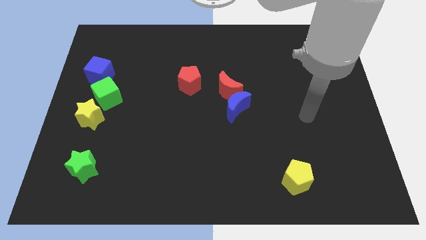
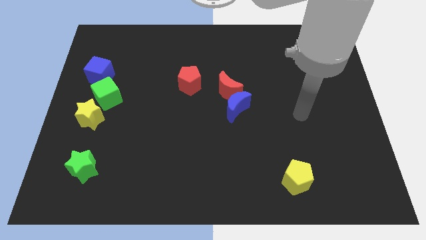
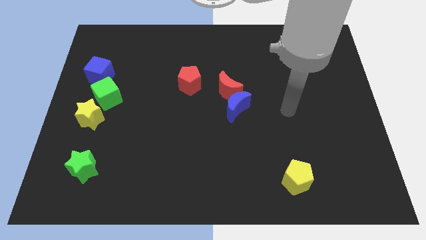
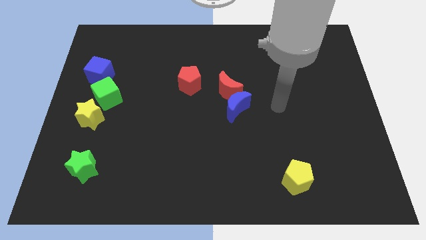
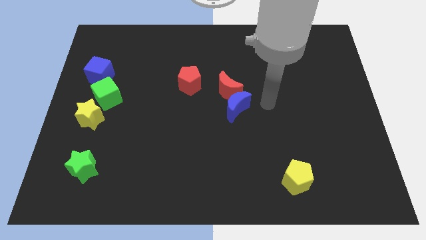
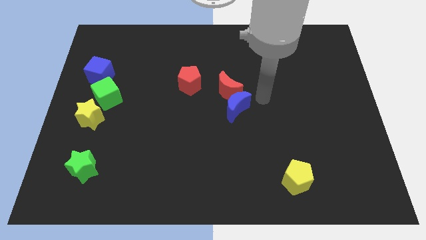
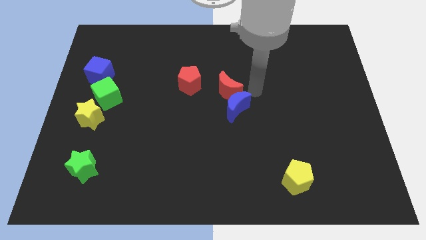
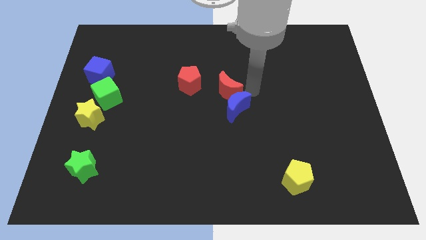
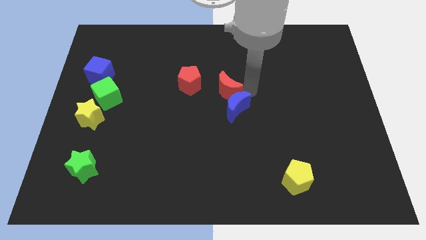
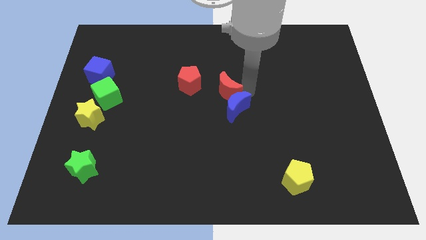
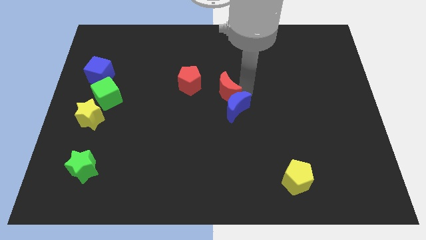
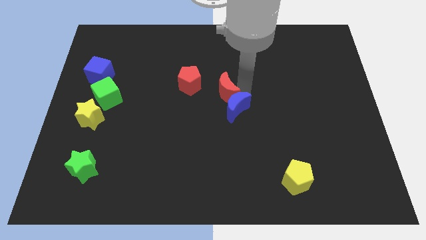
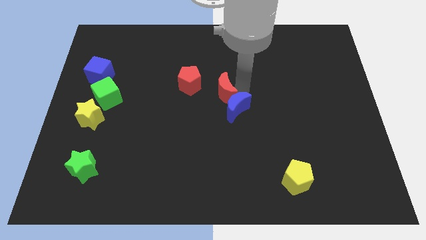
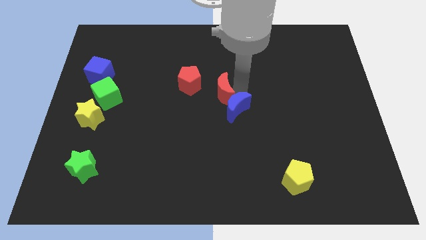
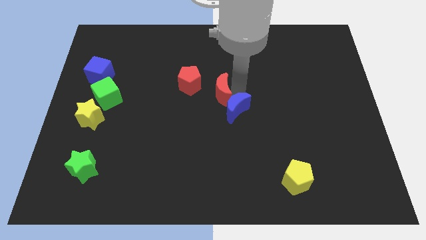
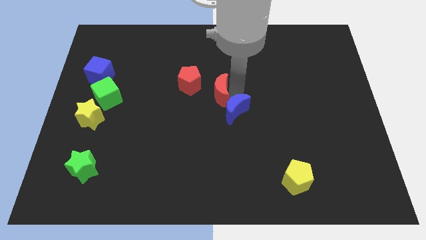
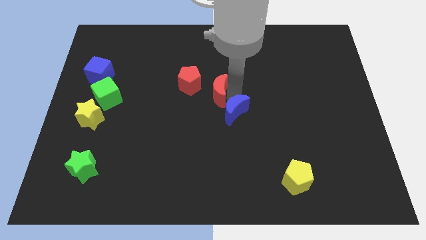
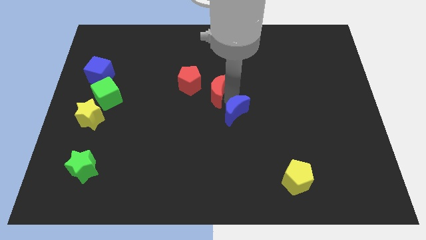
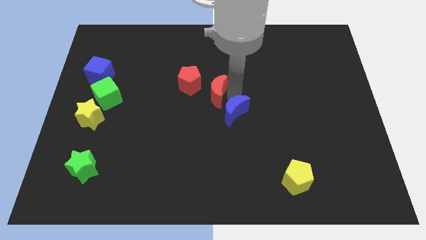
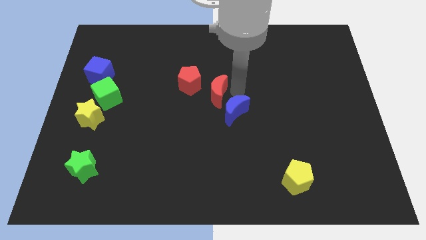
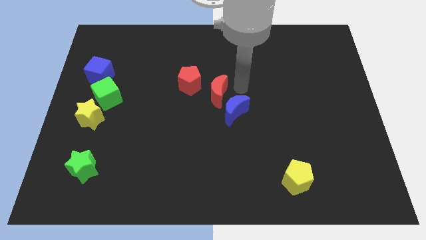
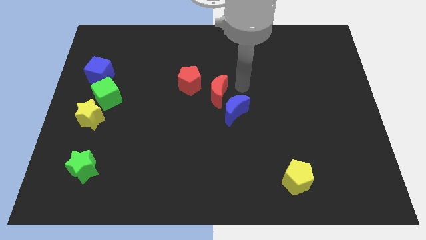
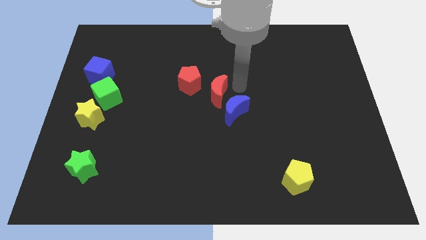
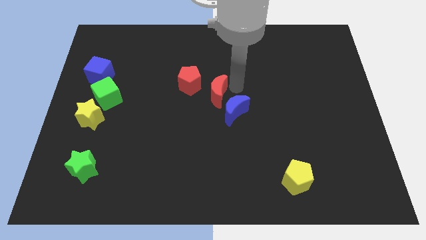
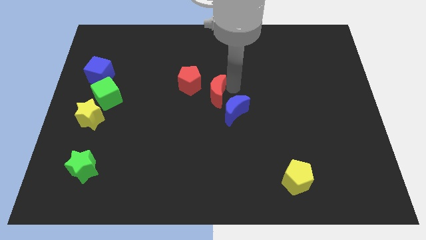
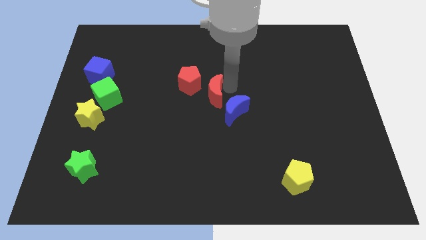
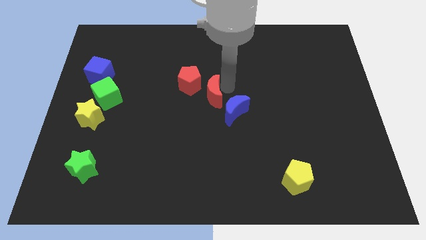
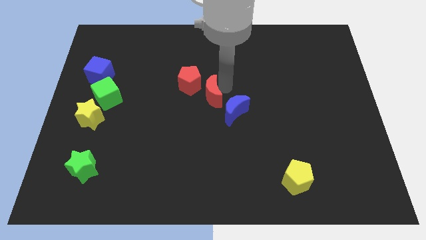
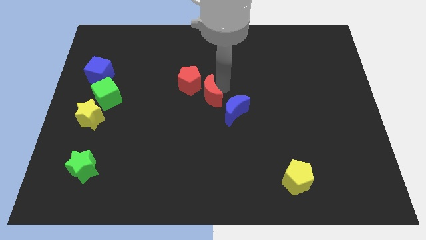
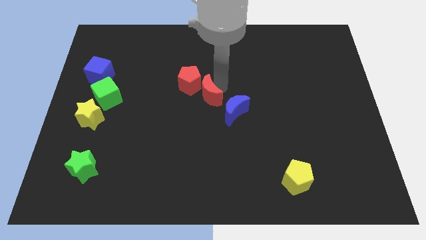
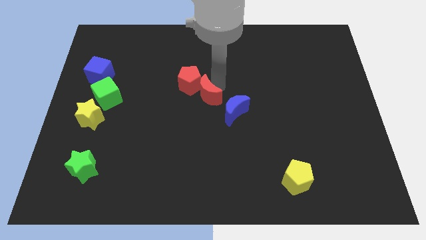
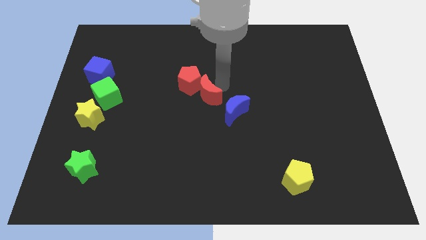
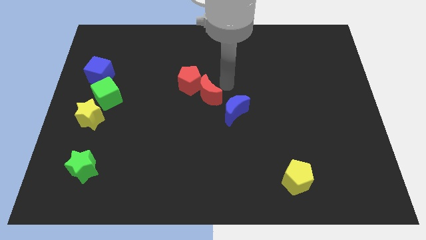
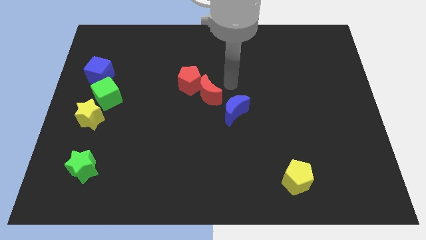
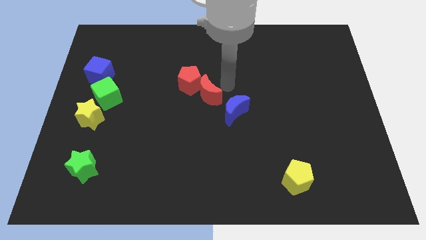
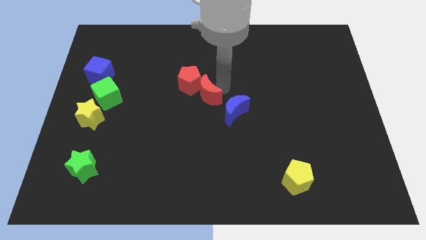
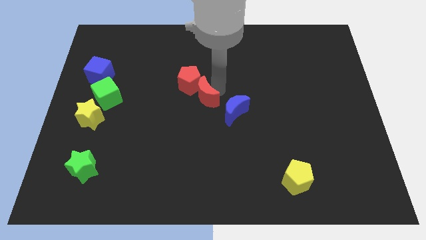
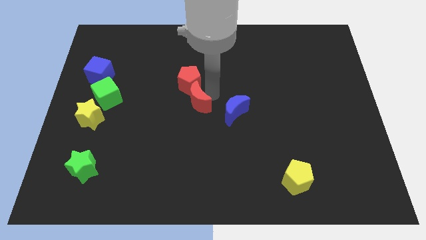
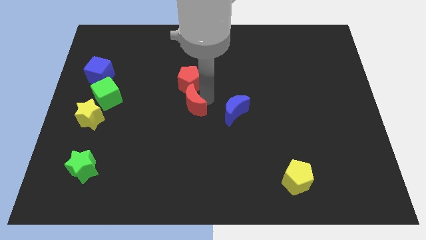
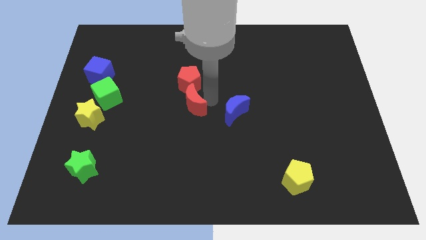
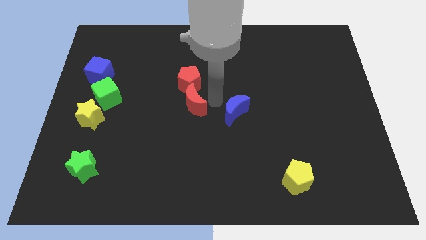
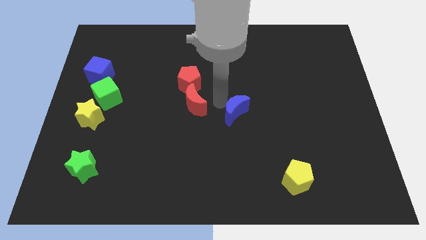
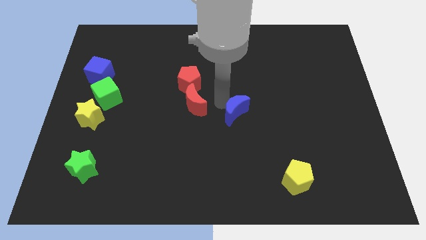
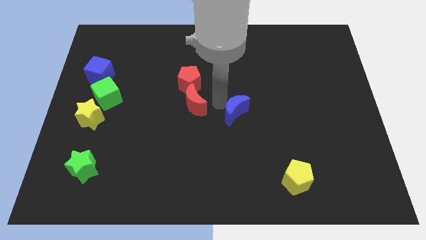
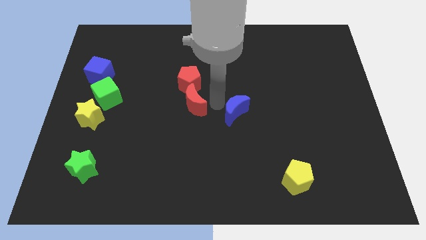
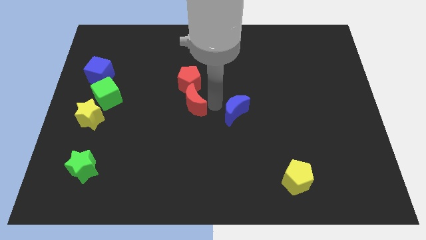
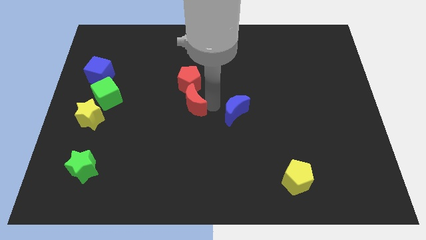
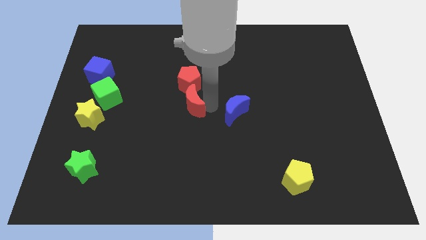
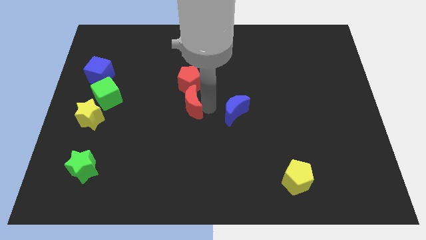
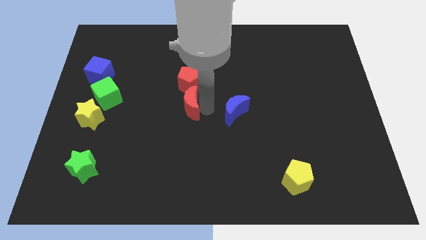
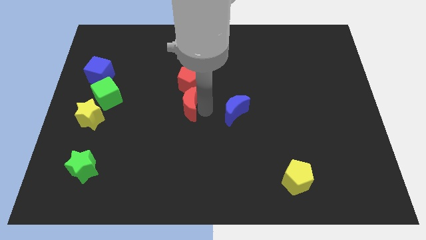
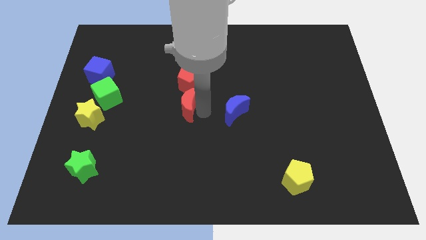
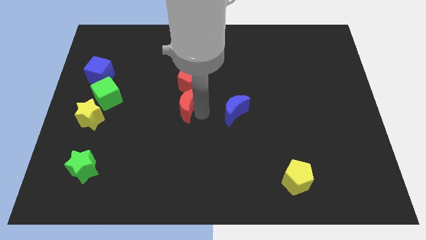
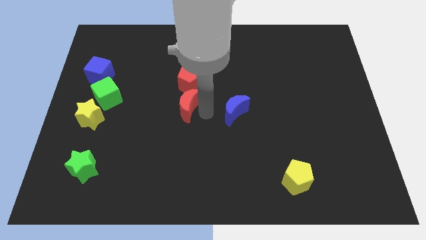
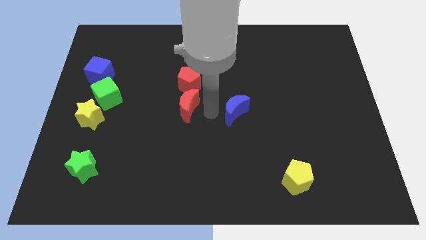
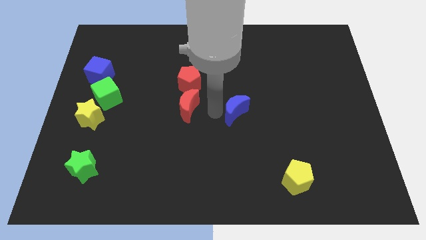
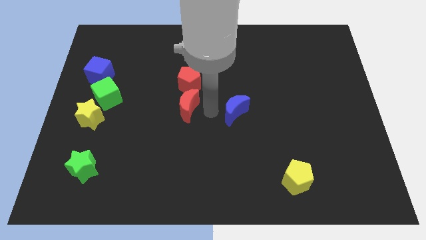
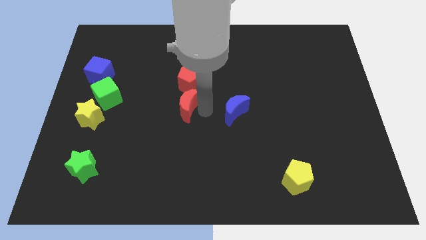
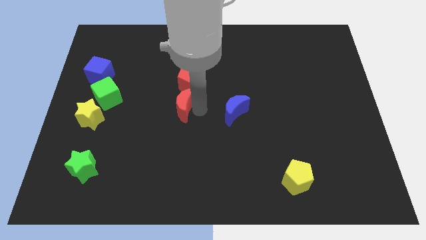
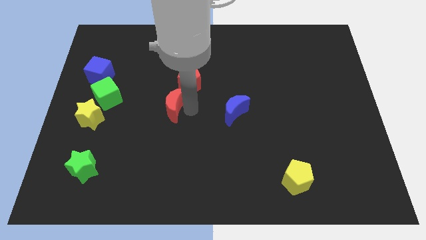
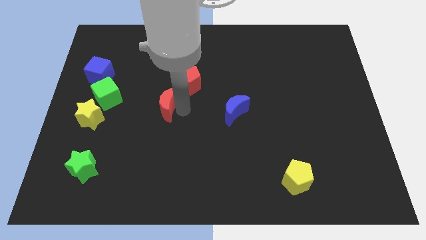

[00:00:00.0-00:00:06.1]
put the red moon to the right side of the green cube
